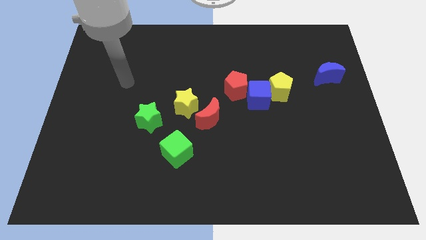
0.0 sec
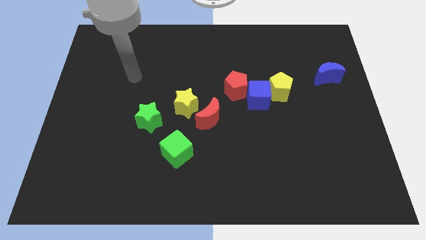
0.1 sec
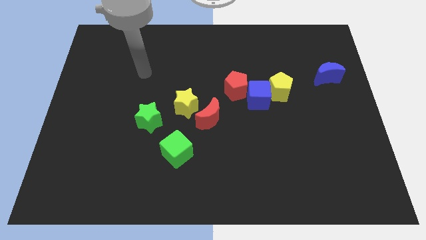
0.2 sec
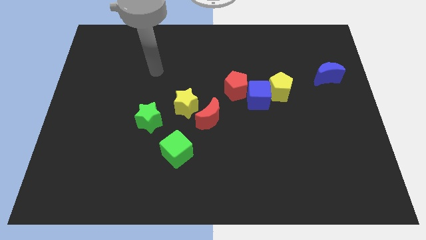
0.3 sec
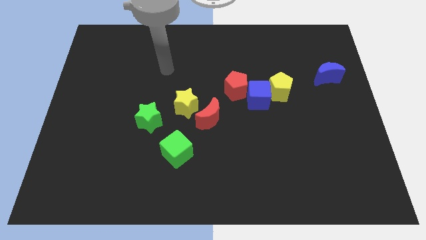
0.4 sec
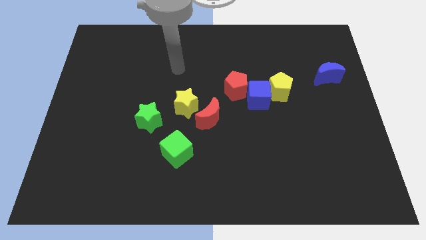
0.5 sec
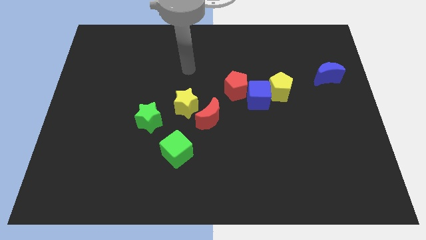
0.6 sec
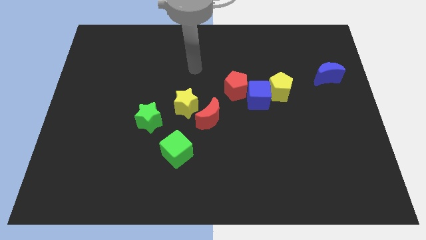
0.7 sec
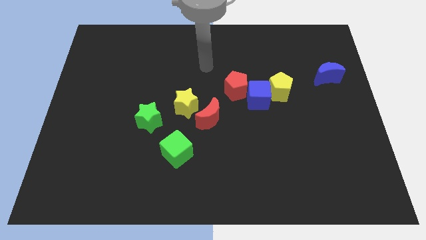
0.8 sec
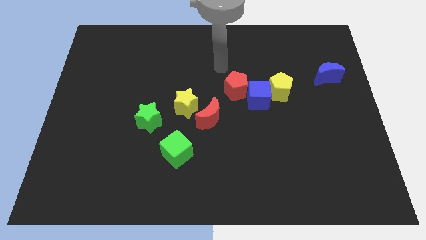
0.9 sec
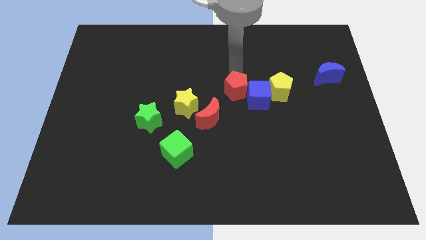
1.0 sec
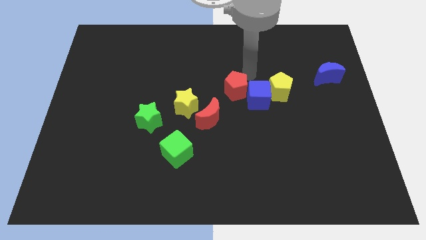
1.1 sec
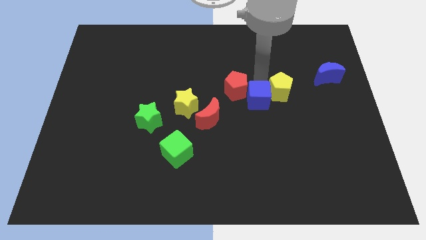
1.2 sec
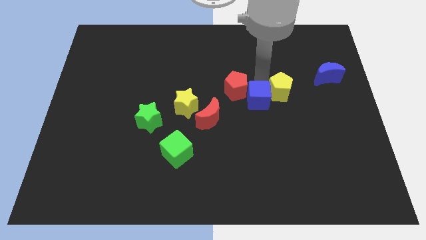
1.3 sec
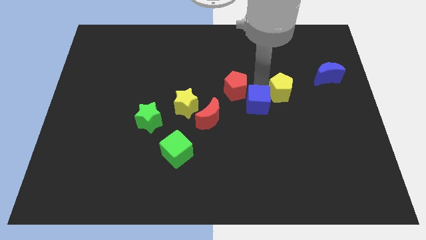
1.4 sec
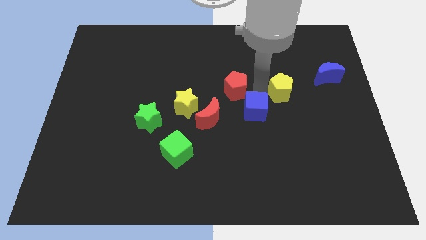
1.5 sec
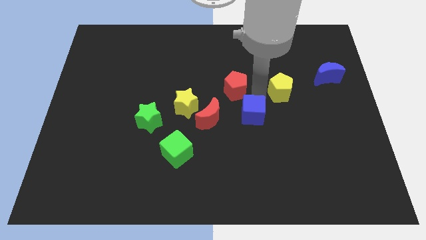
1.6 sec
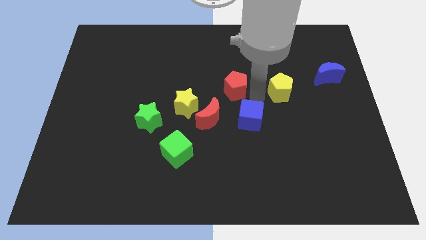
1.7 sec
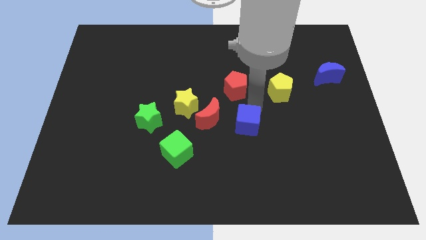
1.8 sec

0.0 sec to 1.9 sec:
separate the blue cube from the yellow pentagon and red pentagon

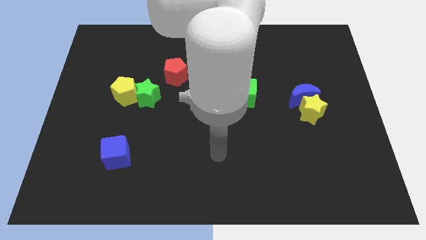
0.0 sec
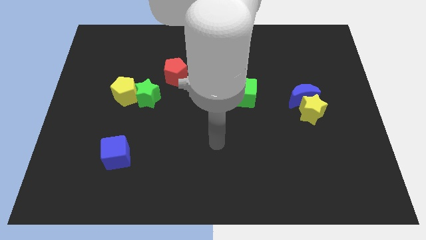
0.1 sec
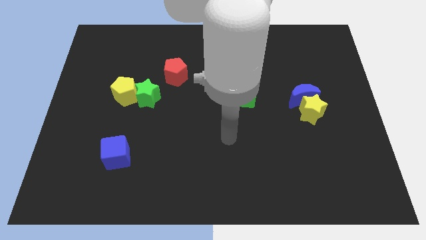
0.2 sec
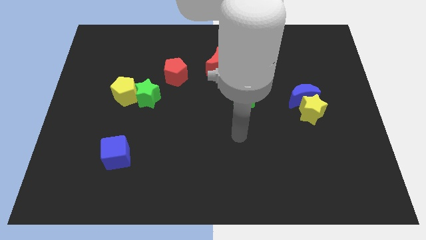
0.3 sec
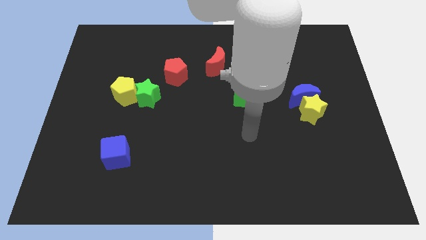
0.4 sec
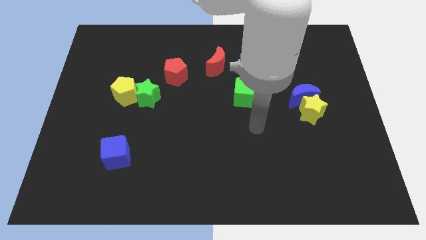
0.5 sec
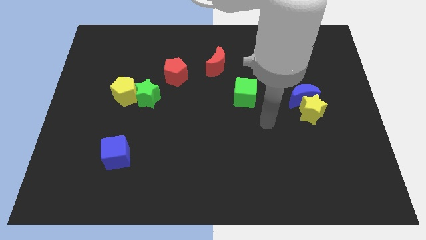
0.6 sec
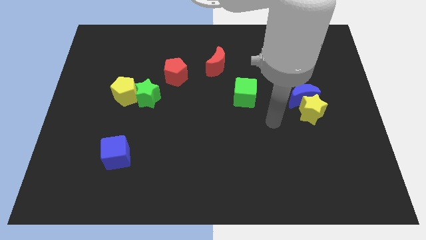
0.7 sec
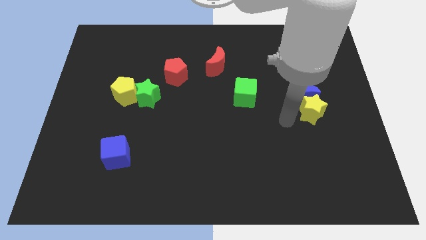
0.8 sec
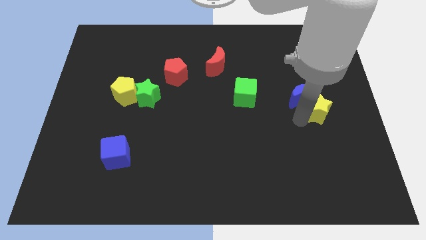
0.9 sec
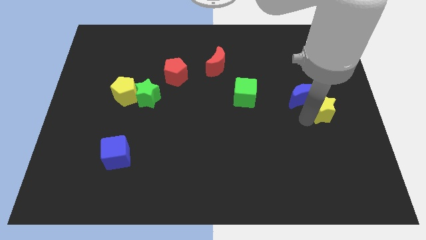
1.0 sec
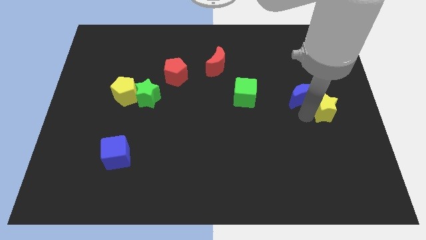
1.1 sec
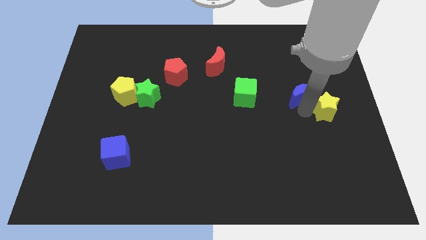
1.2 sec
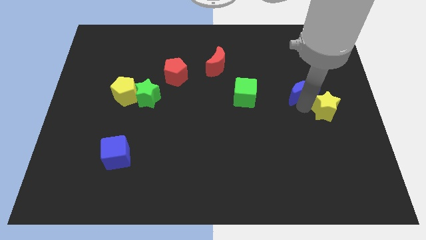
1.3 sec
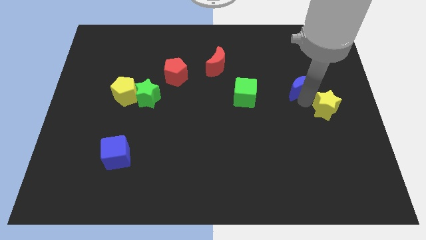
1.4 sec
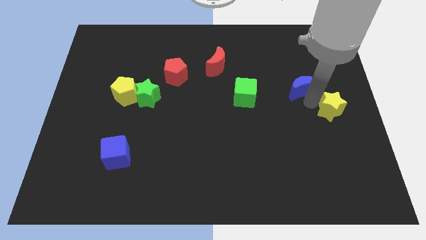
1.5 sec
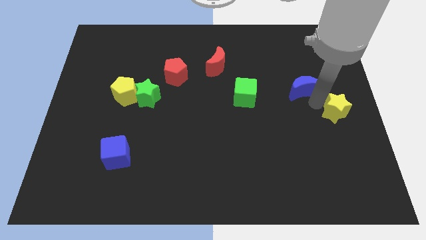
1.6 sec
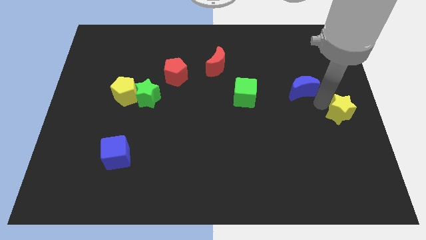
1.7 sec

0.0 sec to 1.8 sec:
separate the blue moon from the yellow star

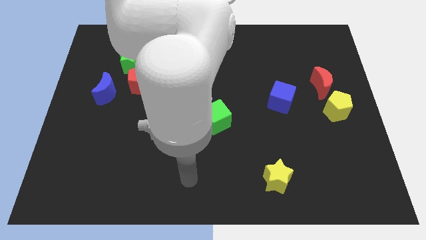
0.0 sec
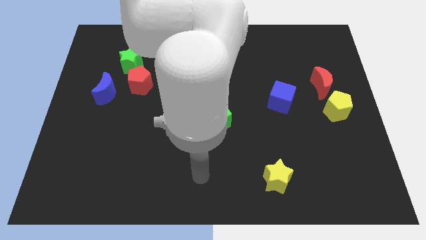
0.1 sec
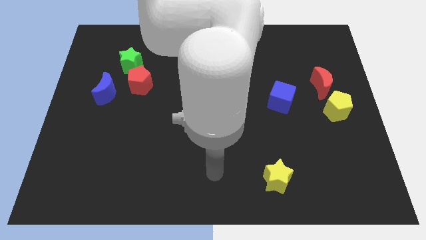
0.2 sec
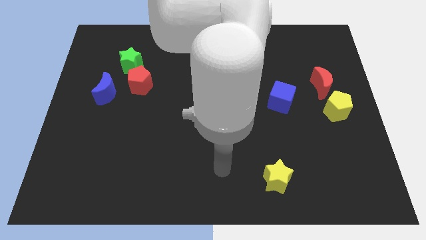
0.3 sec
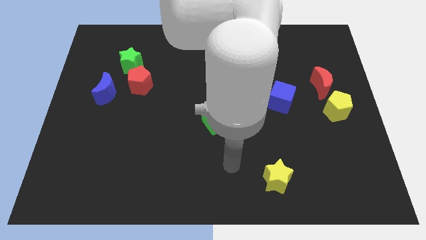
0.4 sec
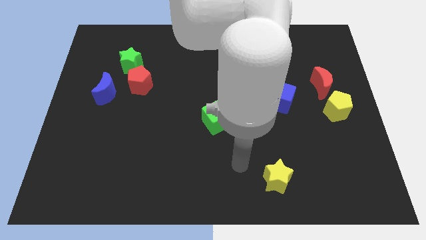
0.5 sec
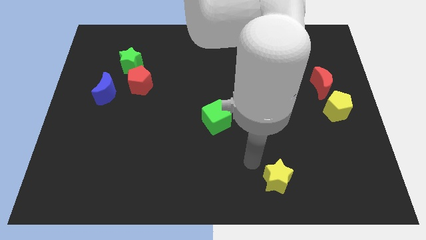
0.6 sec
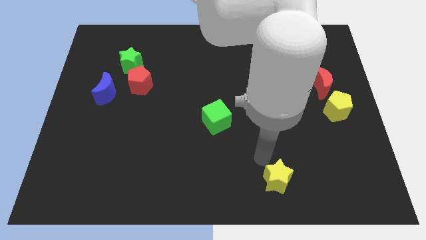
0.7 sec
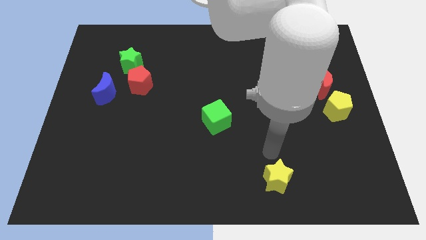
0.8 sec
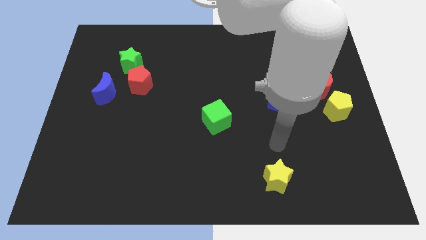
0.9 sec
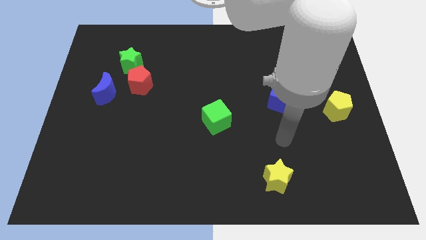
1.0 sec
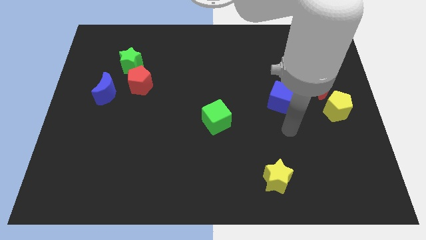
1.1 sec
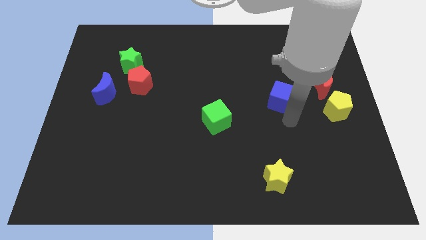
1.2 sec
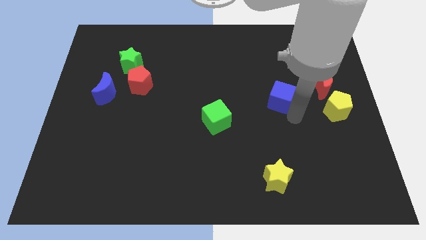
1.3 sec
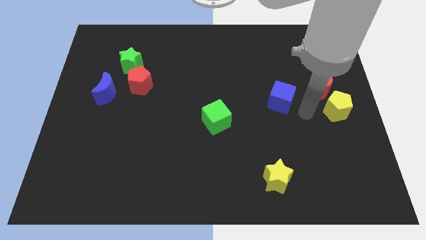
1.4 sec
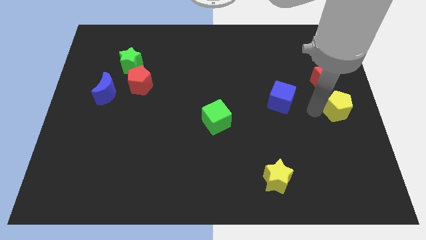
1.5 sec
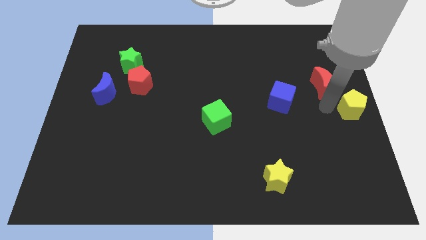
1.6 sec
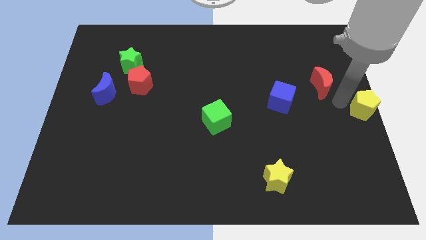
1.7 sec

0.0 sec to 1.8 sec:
pull the red moon apart from the yellow pentagon

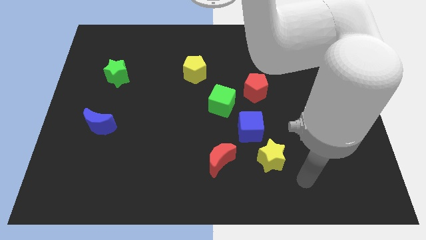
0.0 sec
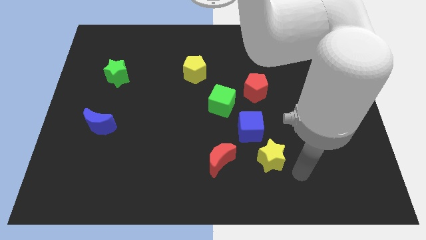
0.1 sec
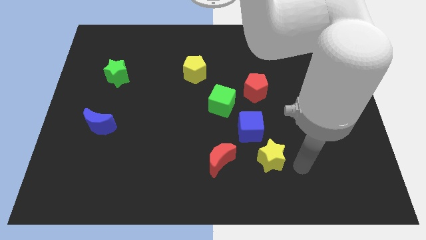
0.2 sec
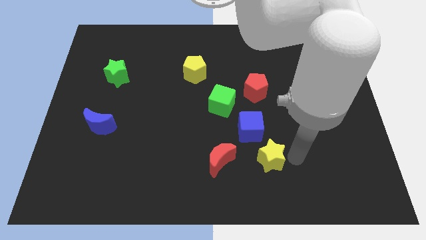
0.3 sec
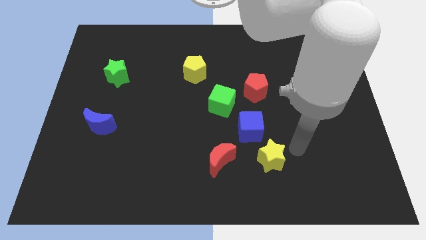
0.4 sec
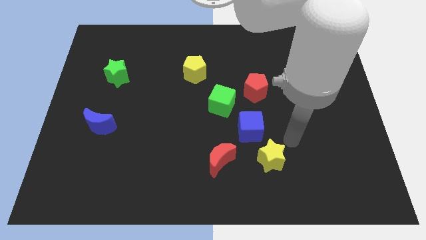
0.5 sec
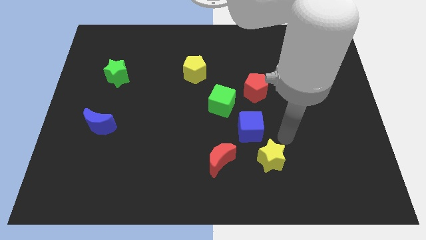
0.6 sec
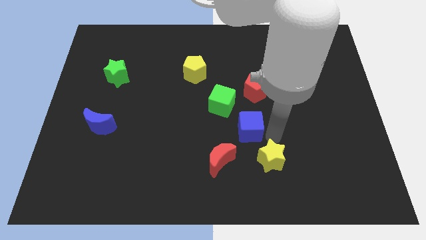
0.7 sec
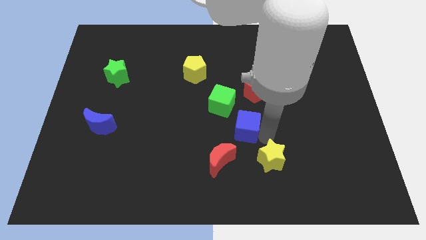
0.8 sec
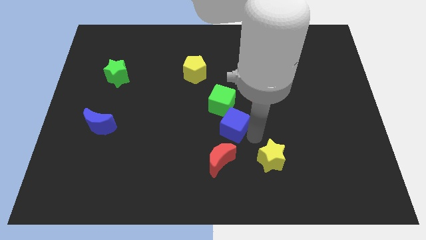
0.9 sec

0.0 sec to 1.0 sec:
separate the yellow star from the blue cube

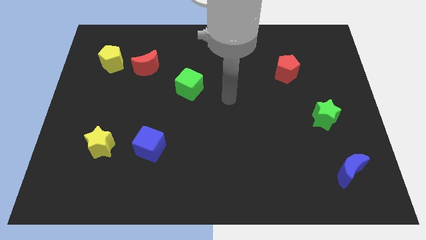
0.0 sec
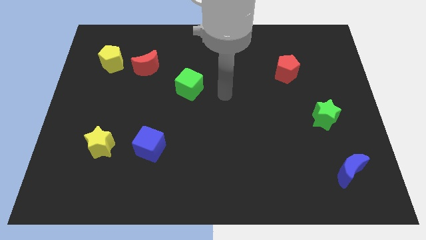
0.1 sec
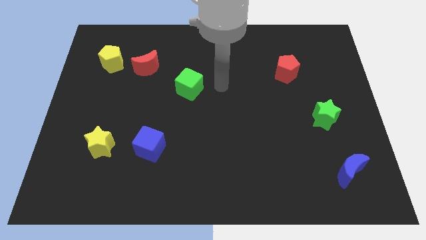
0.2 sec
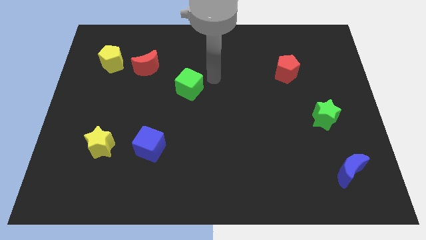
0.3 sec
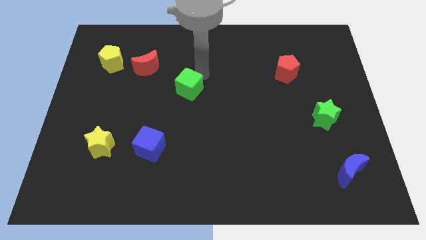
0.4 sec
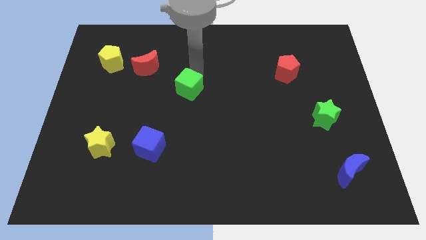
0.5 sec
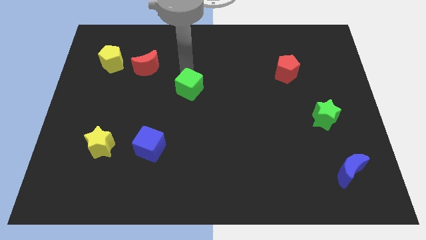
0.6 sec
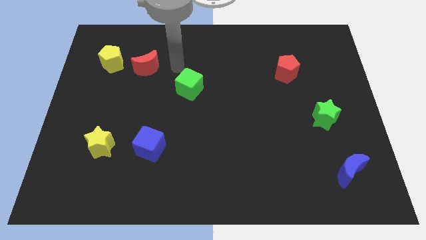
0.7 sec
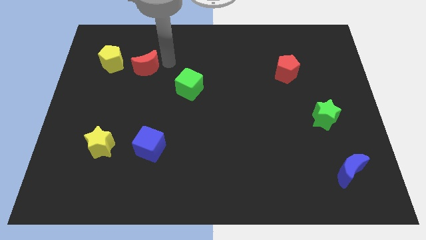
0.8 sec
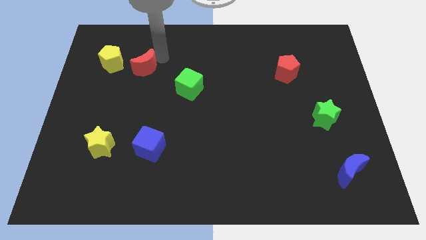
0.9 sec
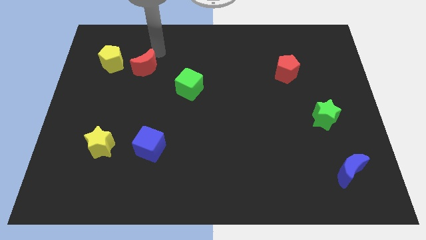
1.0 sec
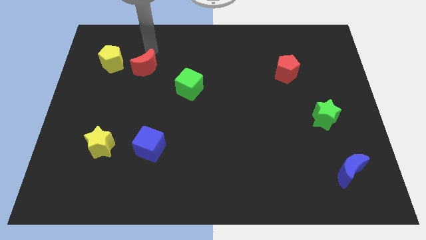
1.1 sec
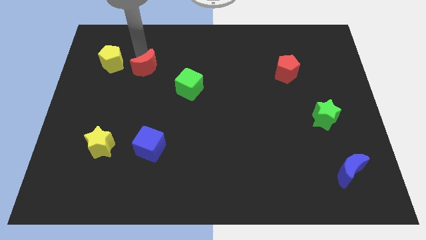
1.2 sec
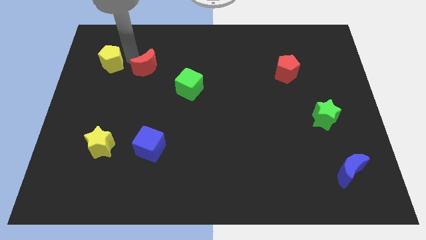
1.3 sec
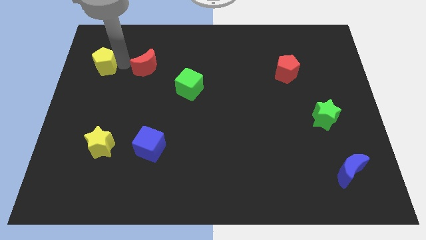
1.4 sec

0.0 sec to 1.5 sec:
separate the red moon from the yellow pentagon

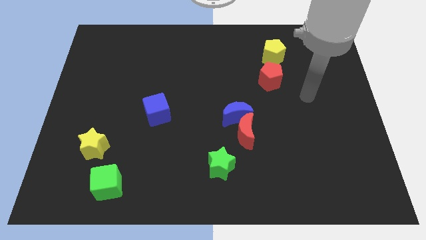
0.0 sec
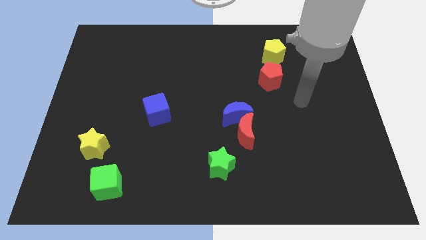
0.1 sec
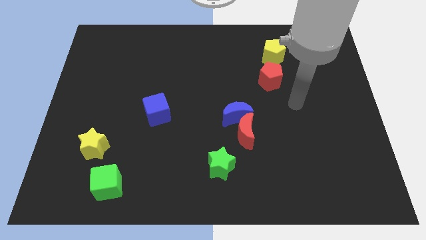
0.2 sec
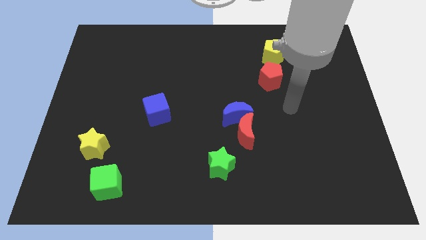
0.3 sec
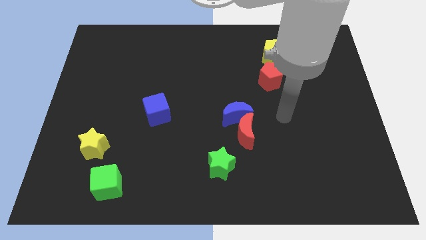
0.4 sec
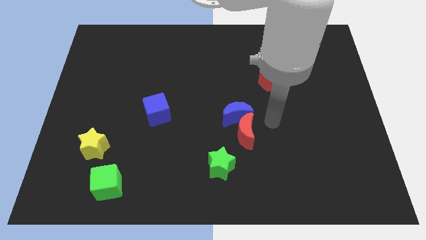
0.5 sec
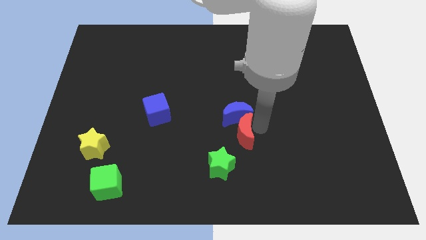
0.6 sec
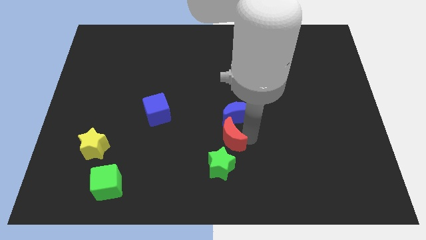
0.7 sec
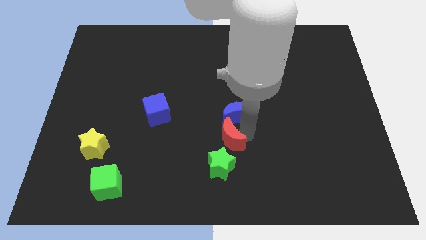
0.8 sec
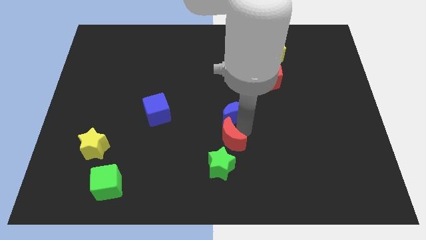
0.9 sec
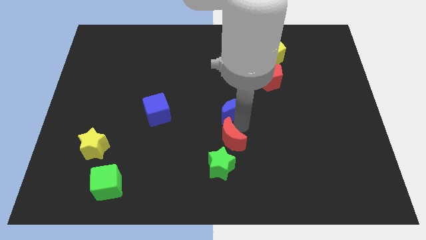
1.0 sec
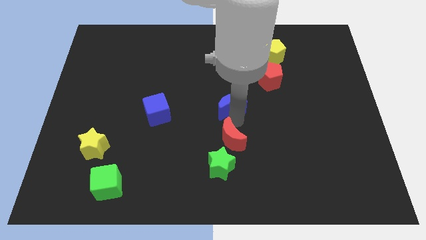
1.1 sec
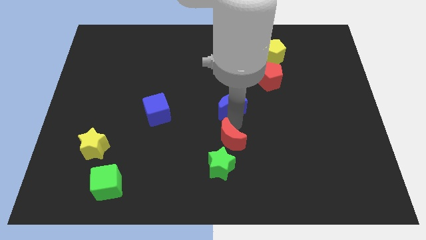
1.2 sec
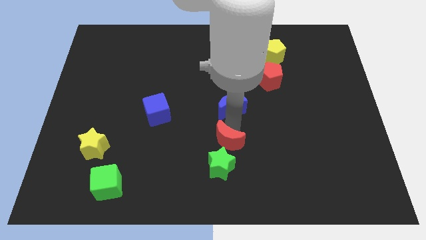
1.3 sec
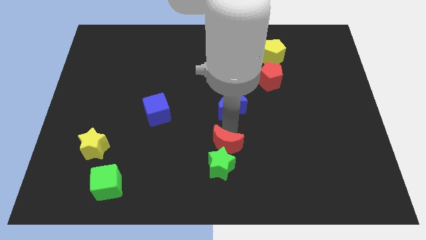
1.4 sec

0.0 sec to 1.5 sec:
separate the blue moon from the red moon

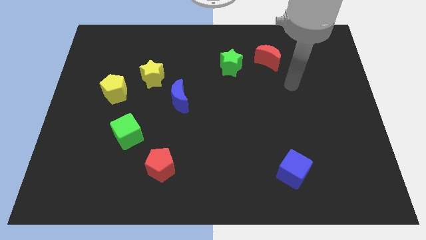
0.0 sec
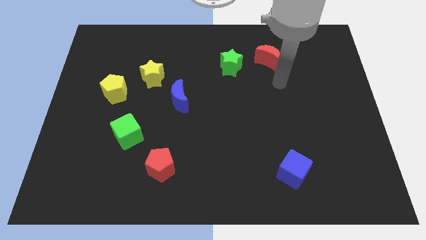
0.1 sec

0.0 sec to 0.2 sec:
pull the yellow pentagon apart from the yellow star
